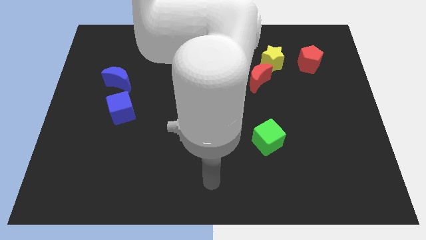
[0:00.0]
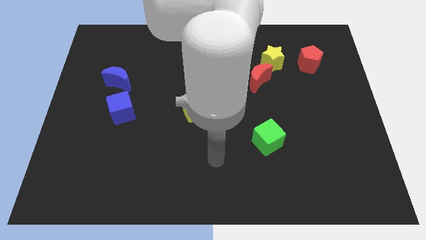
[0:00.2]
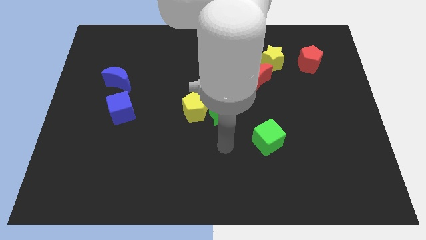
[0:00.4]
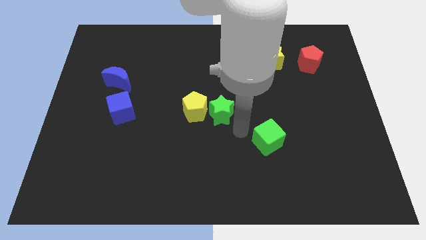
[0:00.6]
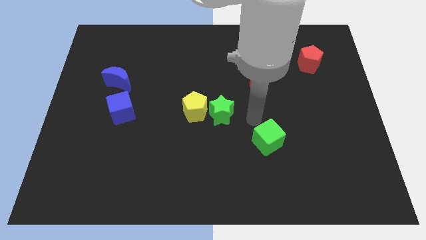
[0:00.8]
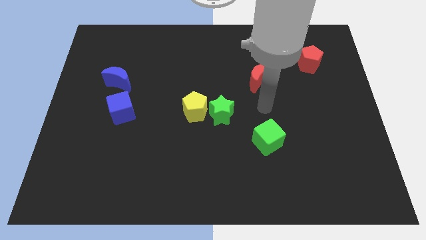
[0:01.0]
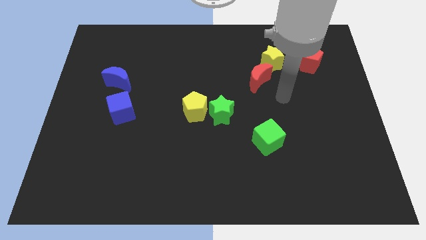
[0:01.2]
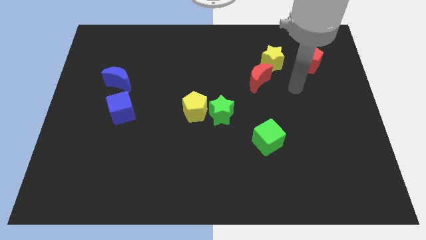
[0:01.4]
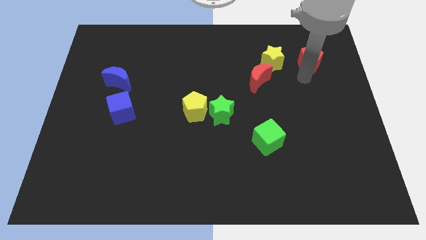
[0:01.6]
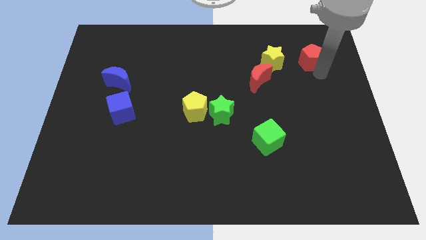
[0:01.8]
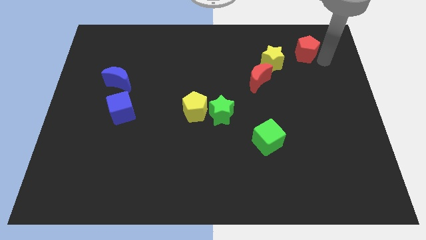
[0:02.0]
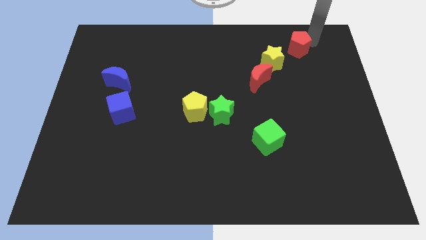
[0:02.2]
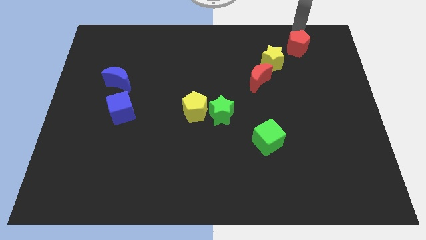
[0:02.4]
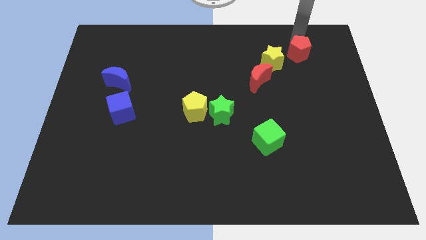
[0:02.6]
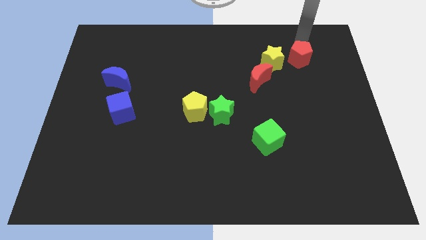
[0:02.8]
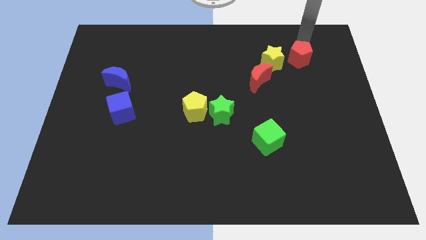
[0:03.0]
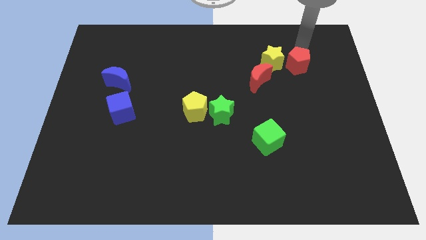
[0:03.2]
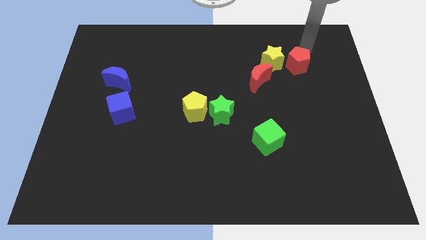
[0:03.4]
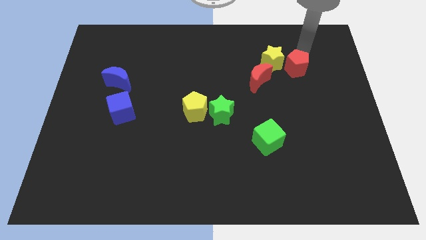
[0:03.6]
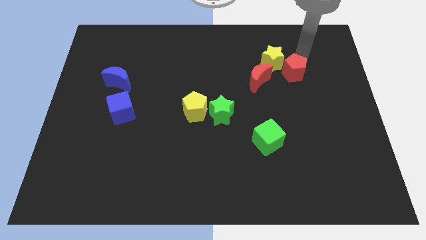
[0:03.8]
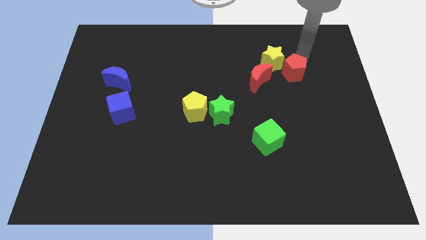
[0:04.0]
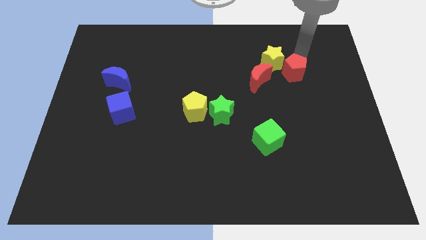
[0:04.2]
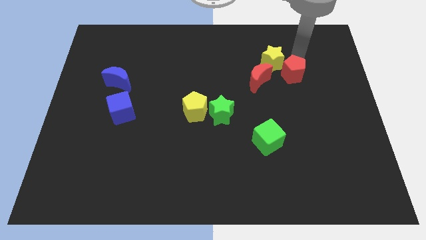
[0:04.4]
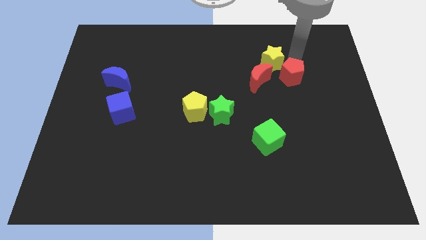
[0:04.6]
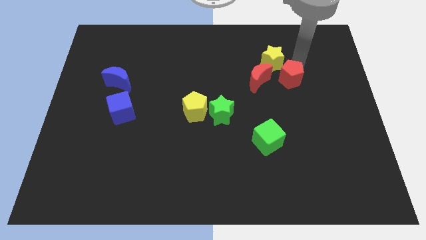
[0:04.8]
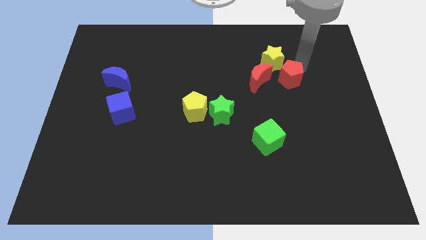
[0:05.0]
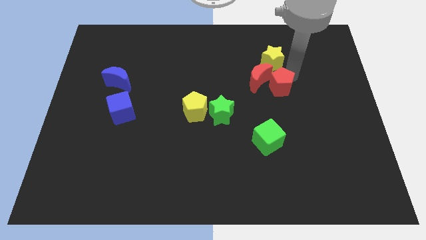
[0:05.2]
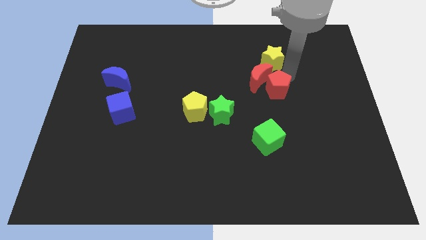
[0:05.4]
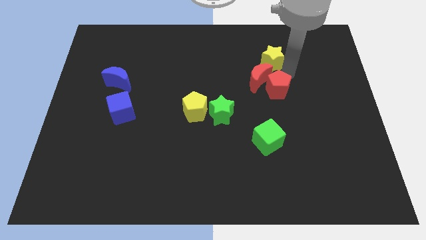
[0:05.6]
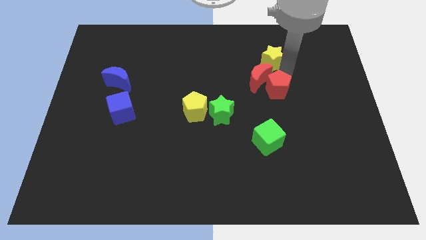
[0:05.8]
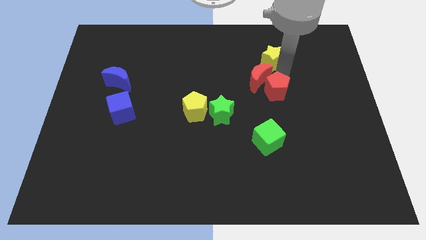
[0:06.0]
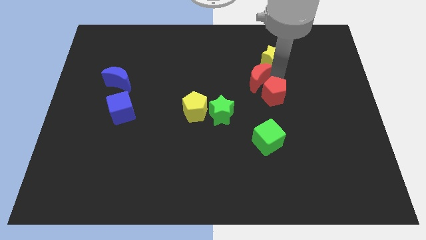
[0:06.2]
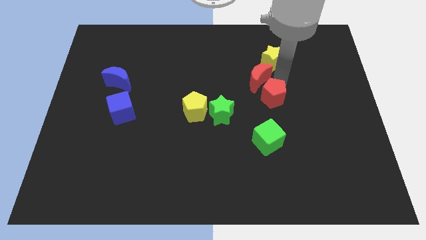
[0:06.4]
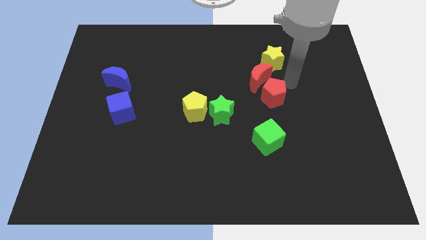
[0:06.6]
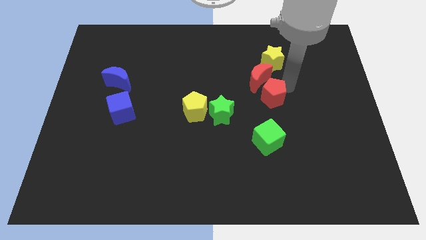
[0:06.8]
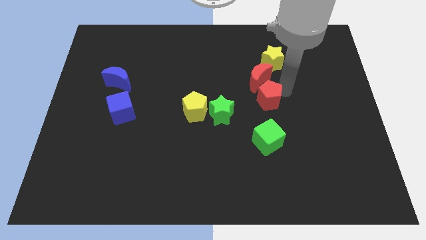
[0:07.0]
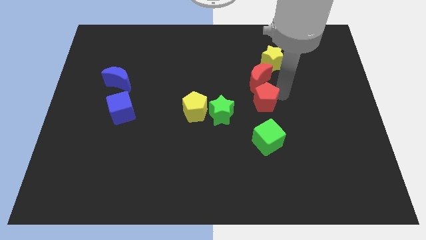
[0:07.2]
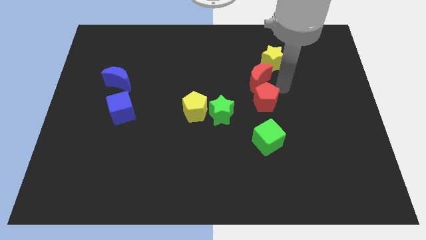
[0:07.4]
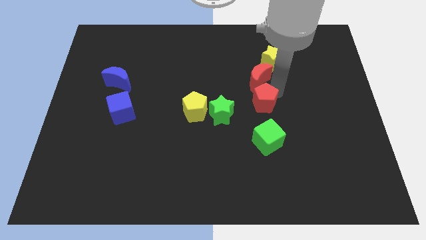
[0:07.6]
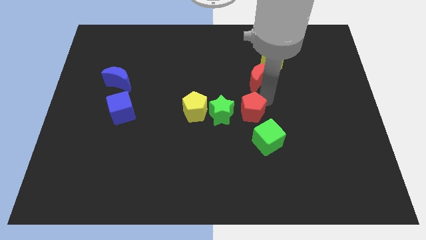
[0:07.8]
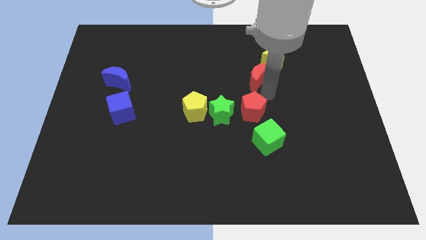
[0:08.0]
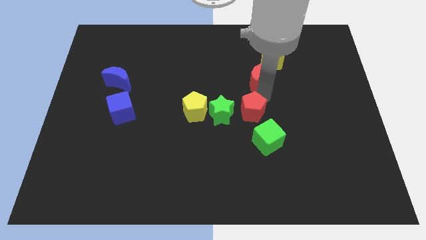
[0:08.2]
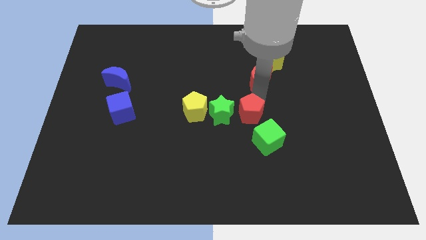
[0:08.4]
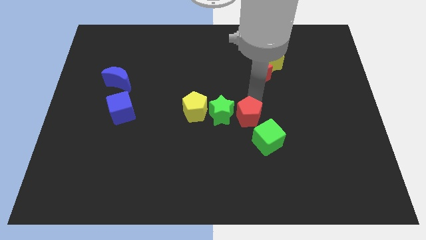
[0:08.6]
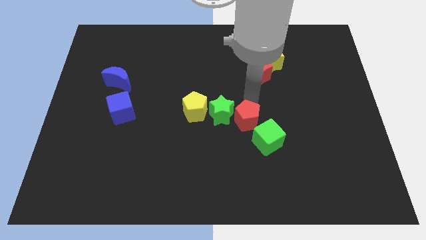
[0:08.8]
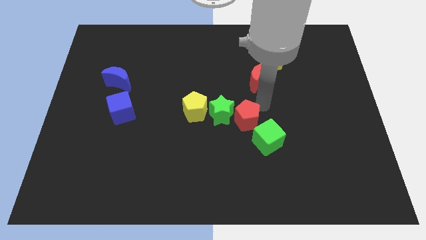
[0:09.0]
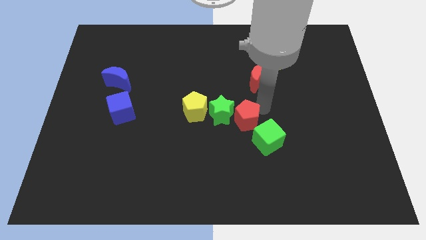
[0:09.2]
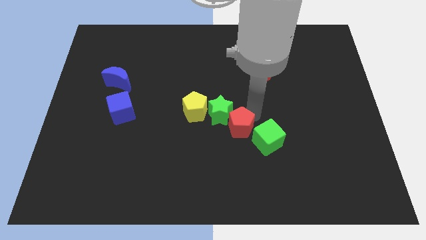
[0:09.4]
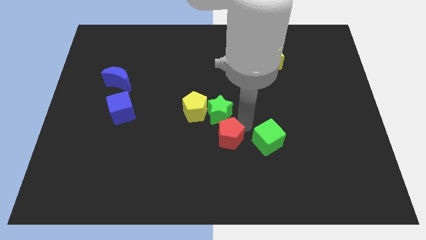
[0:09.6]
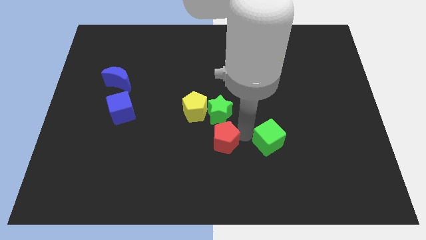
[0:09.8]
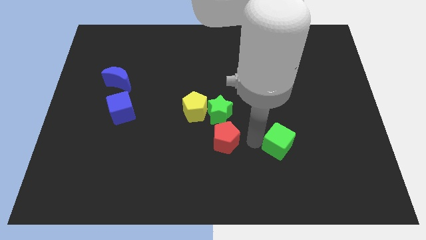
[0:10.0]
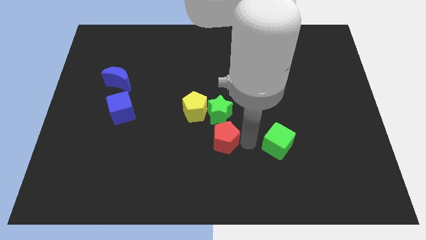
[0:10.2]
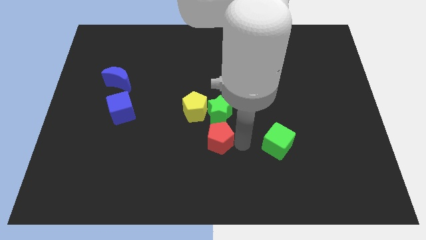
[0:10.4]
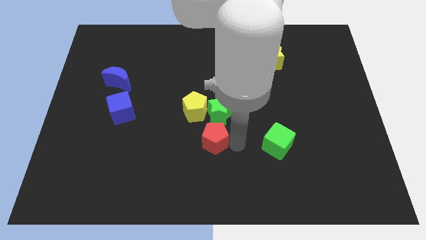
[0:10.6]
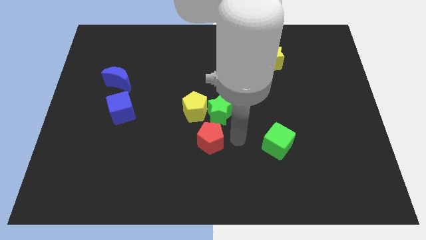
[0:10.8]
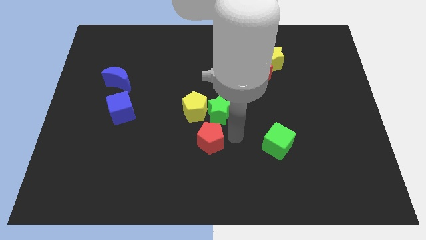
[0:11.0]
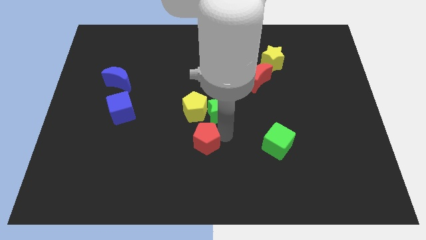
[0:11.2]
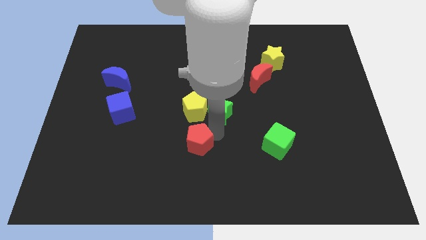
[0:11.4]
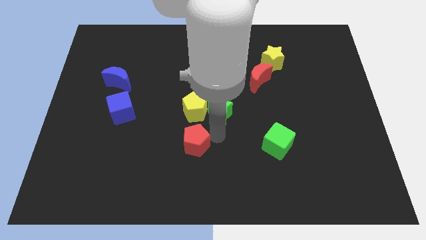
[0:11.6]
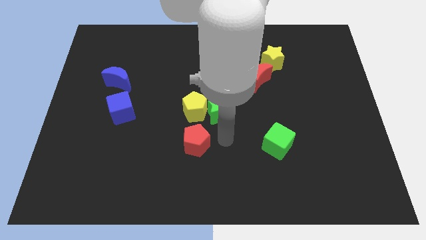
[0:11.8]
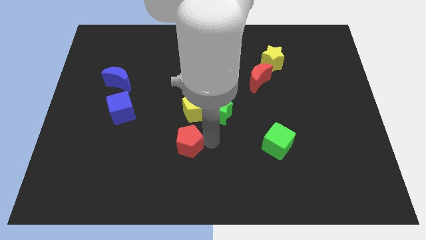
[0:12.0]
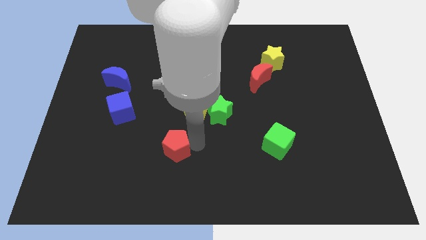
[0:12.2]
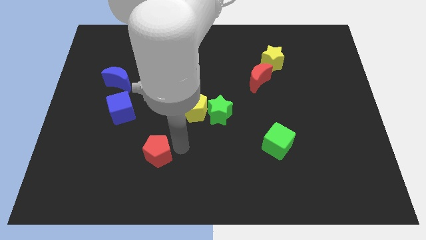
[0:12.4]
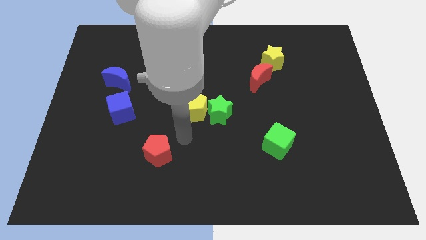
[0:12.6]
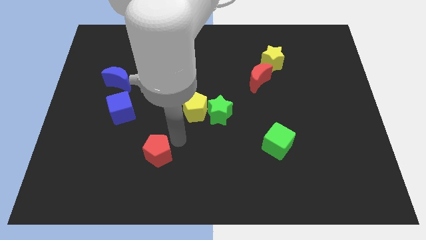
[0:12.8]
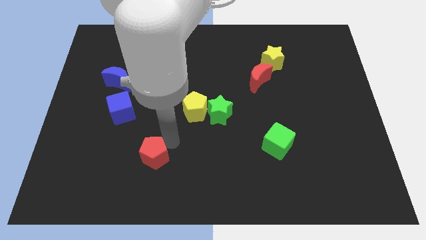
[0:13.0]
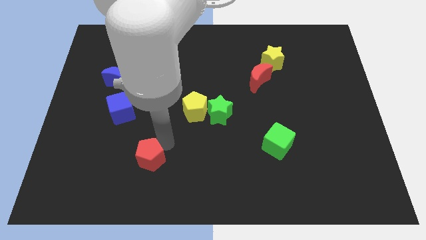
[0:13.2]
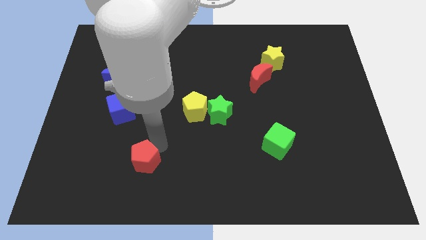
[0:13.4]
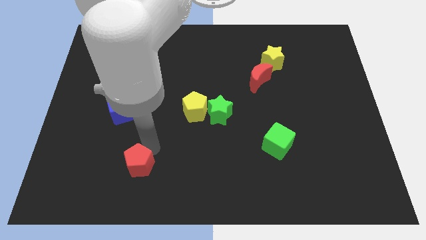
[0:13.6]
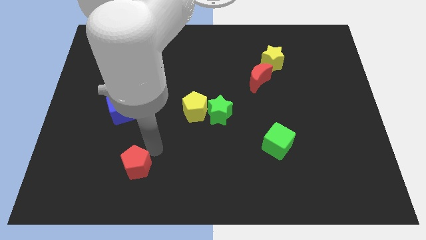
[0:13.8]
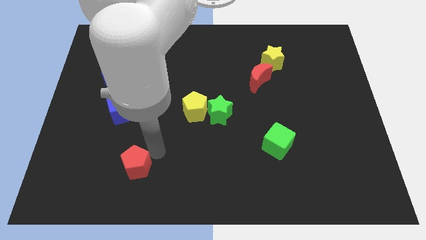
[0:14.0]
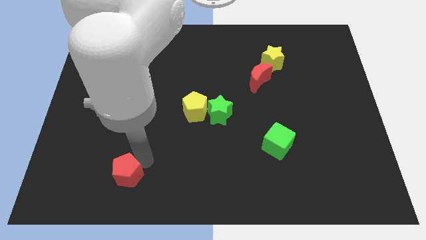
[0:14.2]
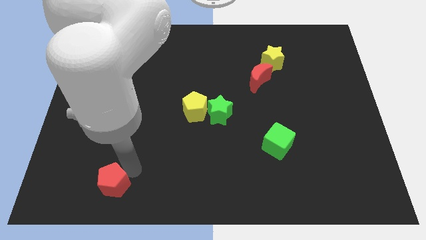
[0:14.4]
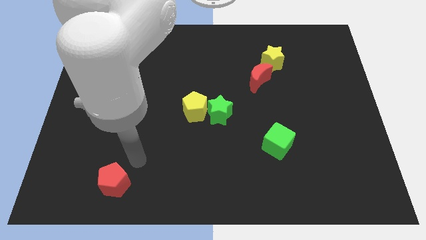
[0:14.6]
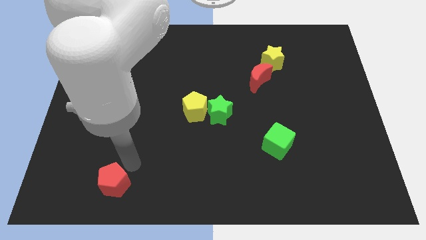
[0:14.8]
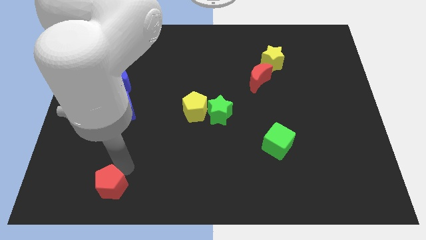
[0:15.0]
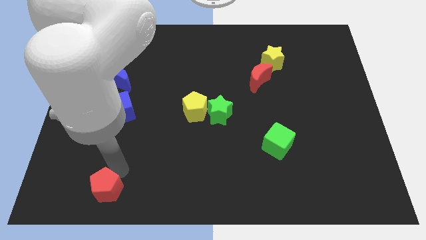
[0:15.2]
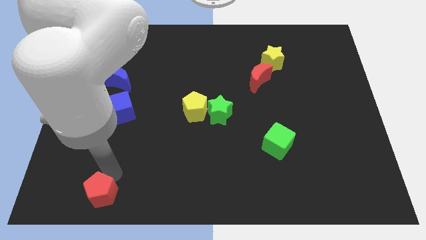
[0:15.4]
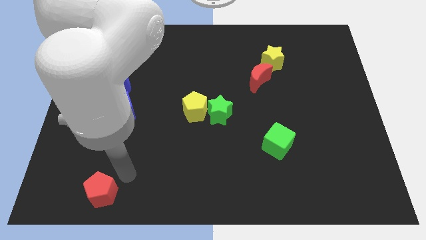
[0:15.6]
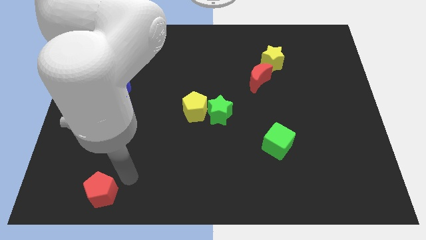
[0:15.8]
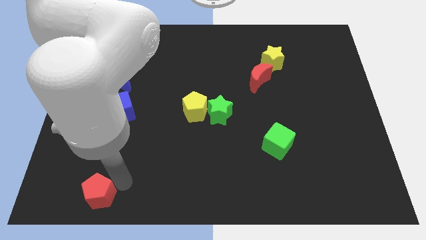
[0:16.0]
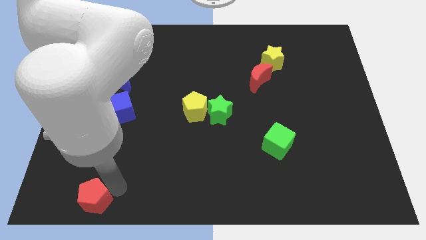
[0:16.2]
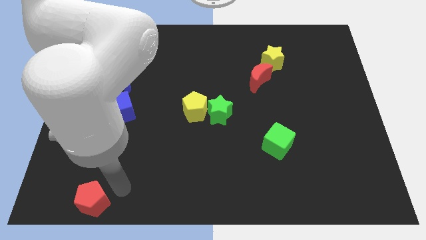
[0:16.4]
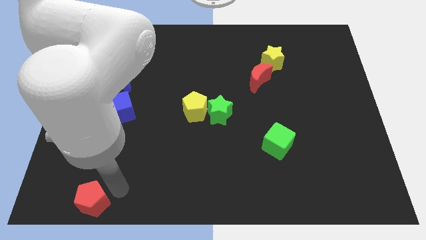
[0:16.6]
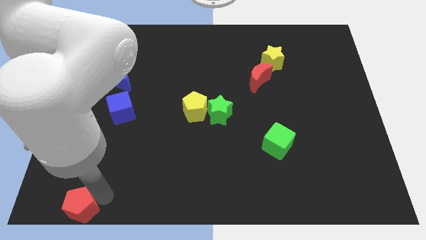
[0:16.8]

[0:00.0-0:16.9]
slide the red pentagon to the lower left corner
